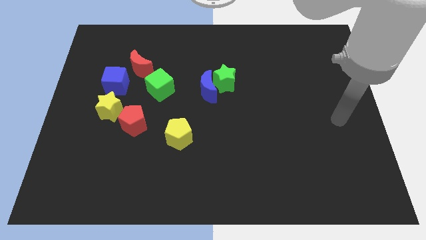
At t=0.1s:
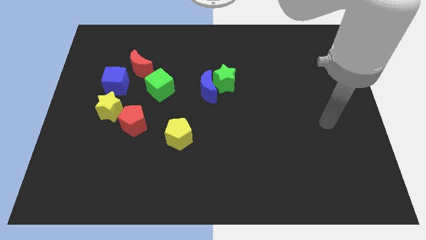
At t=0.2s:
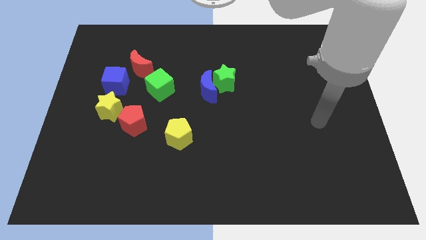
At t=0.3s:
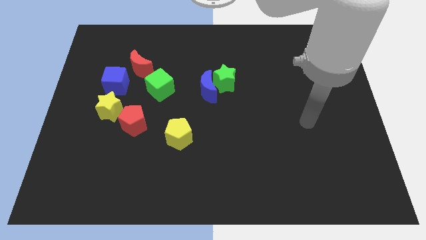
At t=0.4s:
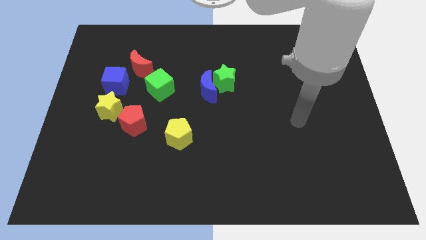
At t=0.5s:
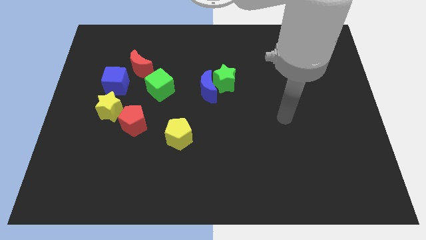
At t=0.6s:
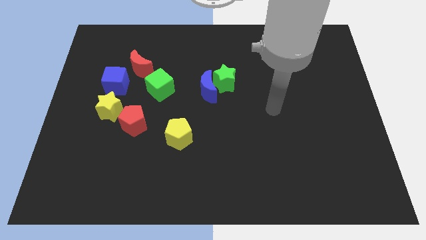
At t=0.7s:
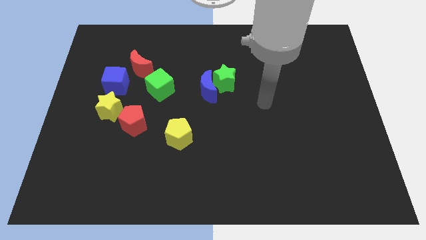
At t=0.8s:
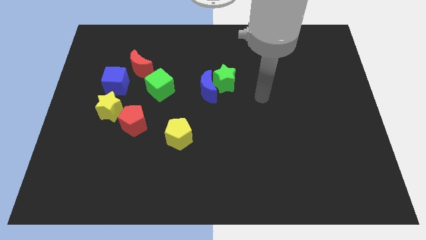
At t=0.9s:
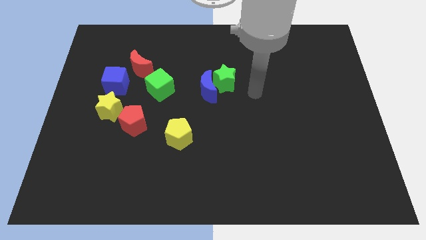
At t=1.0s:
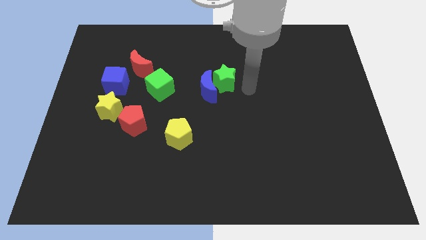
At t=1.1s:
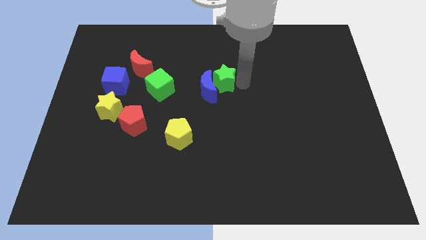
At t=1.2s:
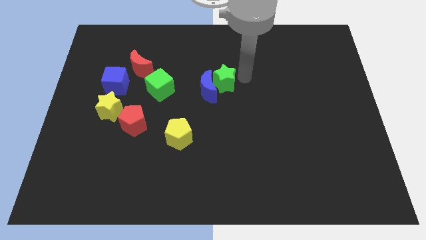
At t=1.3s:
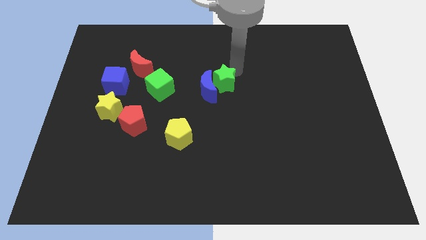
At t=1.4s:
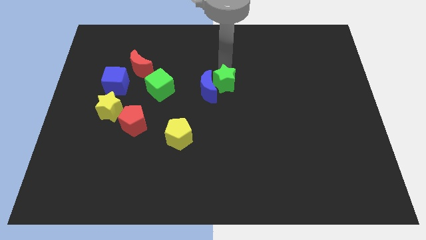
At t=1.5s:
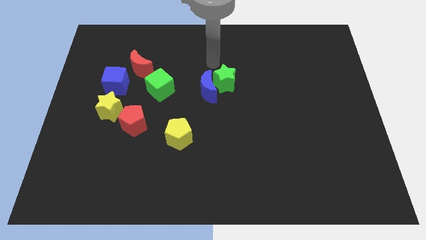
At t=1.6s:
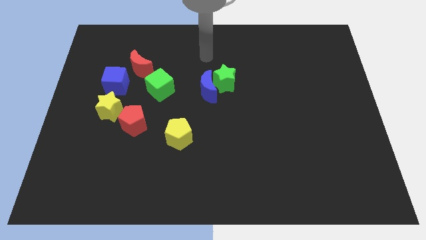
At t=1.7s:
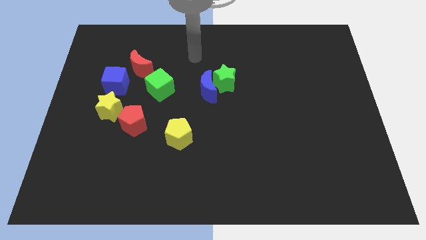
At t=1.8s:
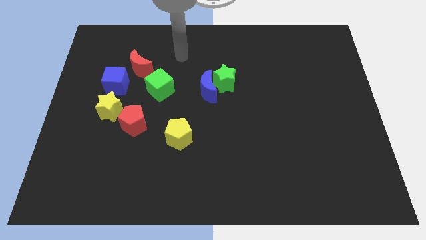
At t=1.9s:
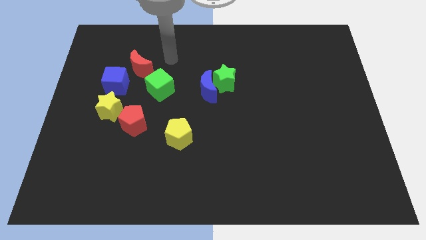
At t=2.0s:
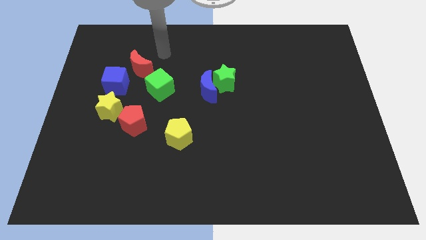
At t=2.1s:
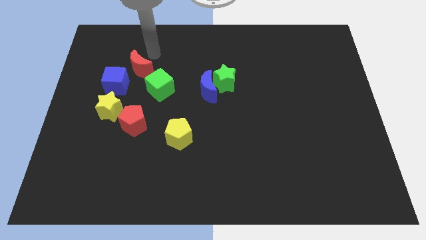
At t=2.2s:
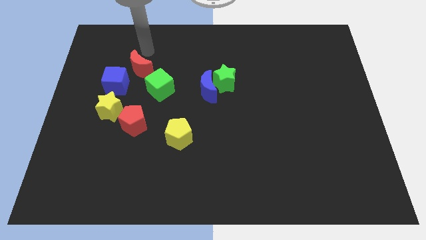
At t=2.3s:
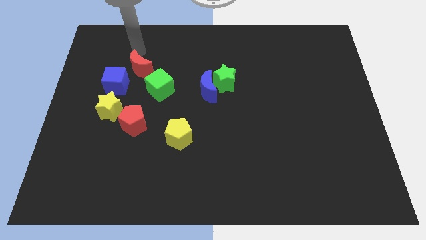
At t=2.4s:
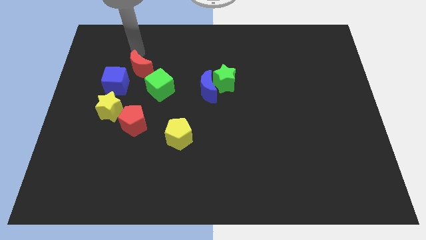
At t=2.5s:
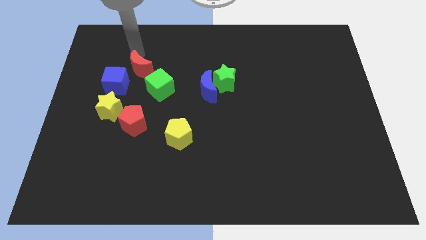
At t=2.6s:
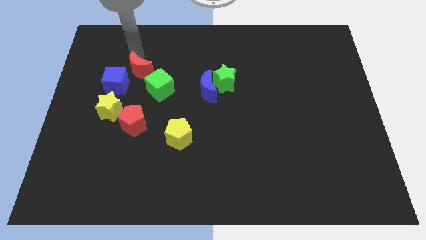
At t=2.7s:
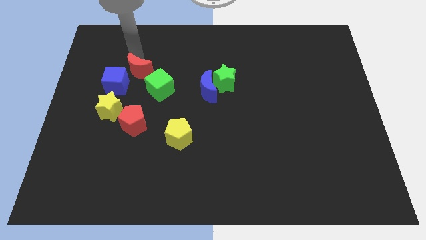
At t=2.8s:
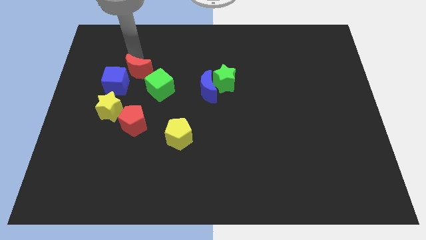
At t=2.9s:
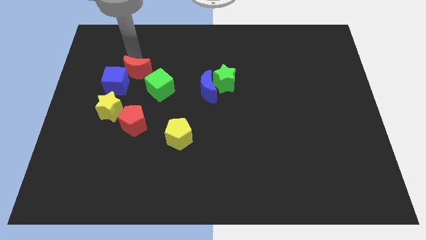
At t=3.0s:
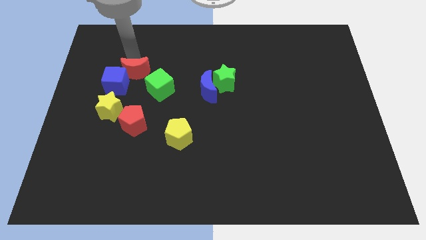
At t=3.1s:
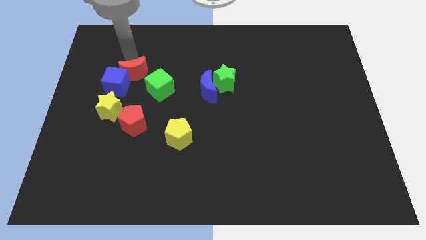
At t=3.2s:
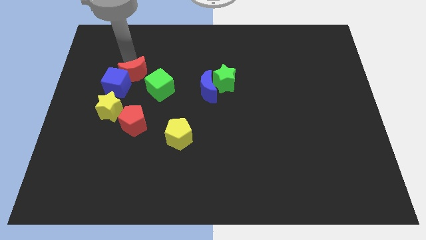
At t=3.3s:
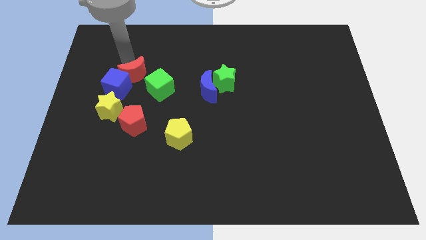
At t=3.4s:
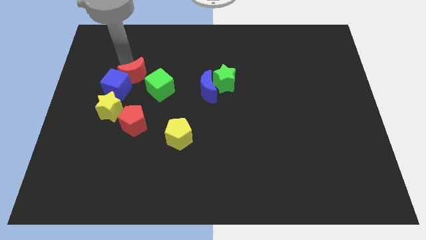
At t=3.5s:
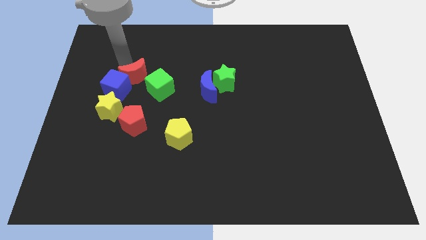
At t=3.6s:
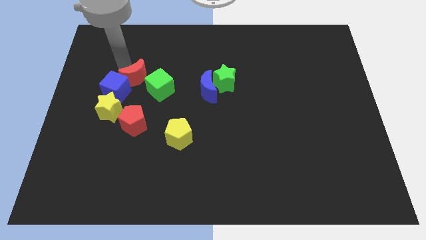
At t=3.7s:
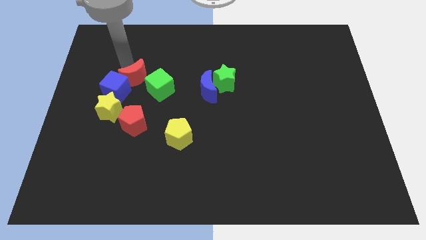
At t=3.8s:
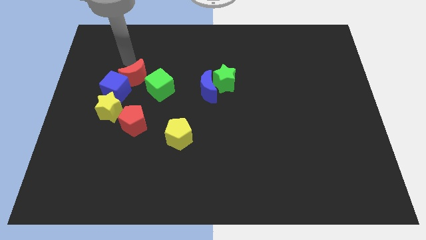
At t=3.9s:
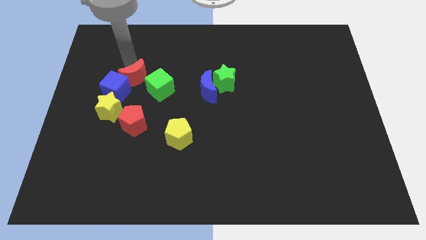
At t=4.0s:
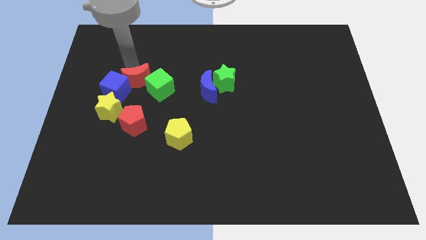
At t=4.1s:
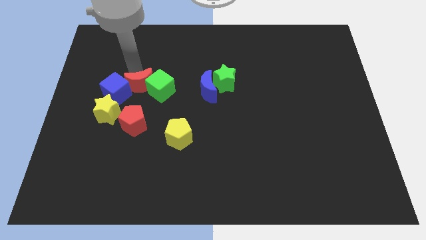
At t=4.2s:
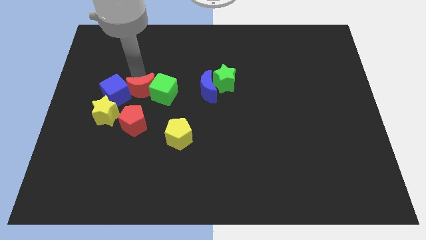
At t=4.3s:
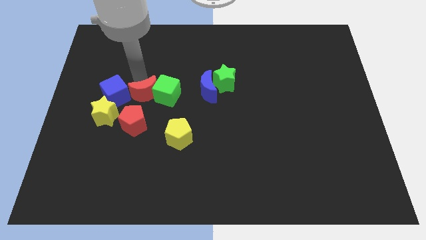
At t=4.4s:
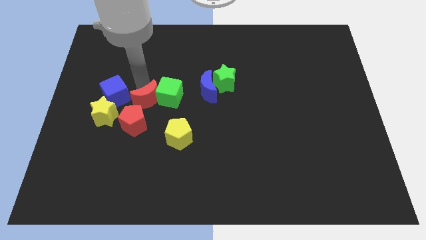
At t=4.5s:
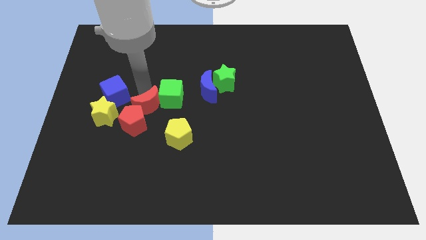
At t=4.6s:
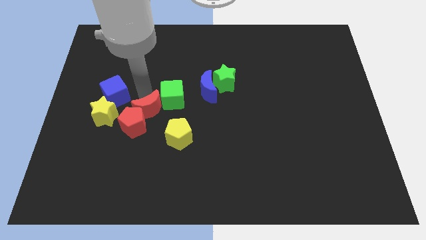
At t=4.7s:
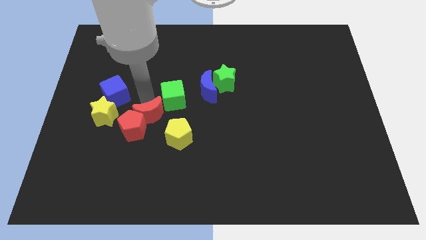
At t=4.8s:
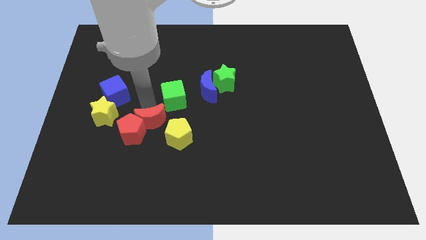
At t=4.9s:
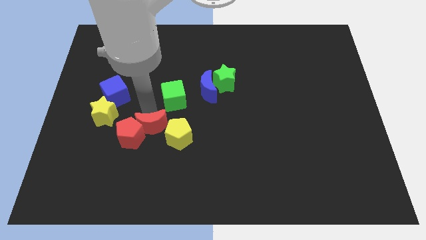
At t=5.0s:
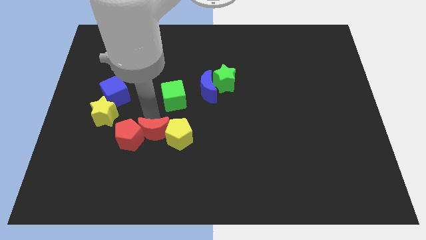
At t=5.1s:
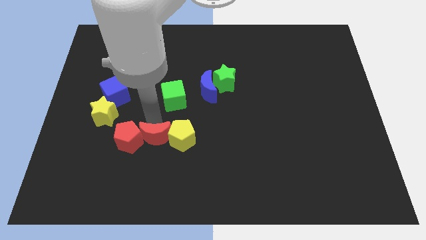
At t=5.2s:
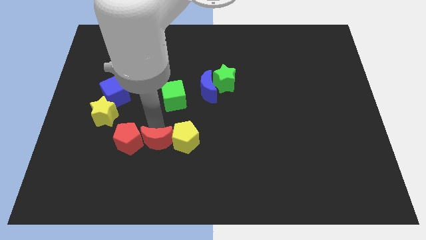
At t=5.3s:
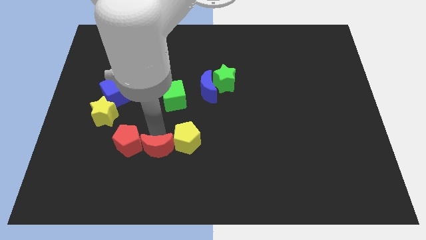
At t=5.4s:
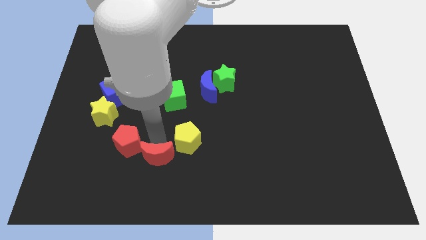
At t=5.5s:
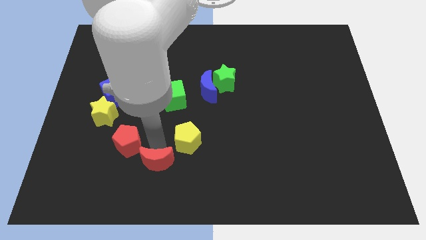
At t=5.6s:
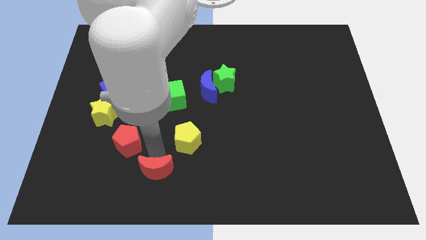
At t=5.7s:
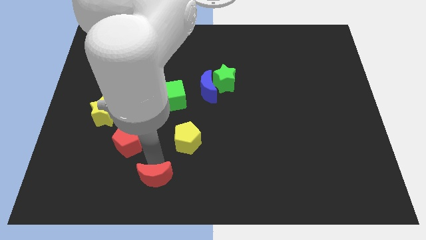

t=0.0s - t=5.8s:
put the red moon to the bottom side

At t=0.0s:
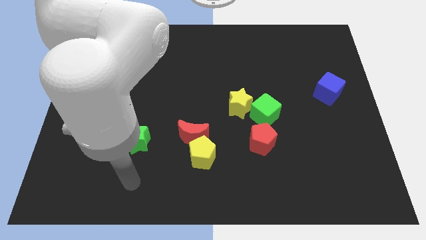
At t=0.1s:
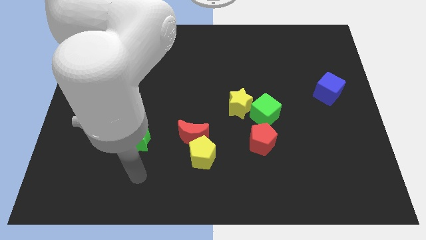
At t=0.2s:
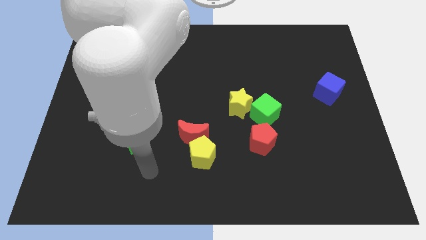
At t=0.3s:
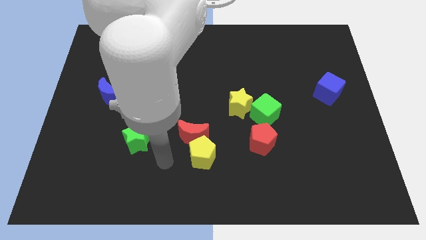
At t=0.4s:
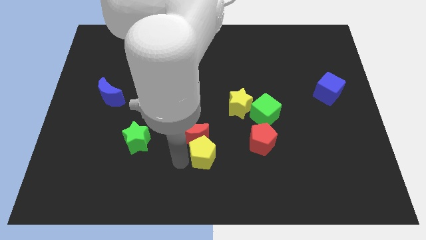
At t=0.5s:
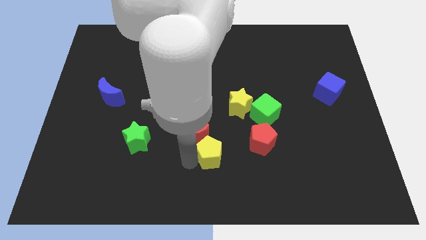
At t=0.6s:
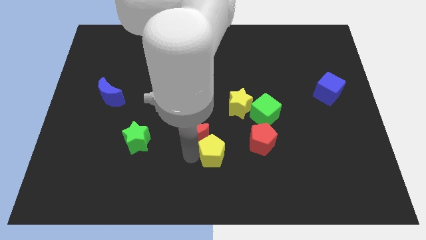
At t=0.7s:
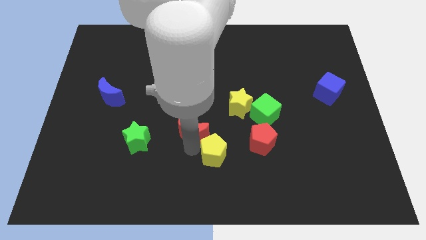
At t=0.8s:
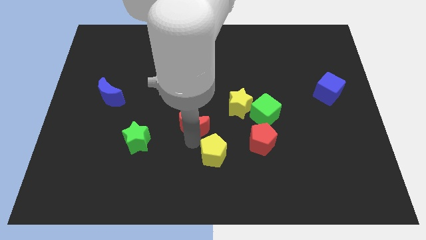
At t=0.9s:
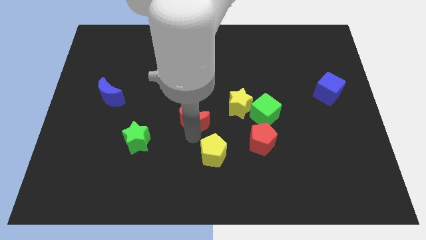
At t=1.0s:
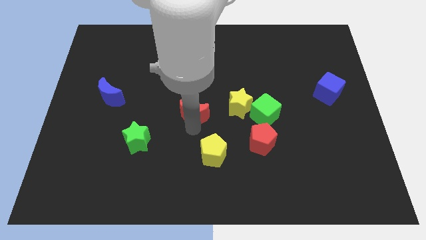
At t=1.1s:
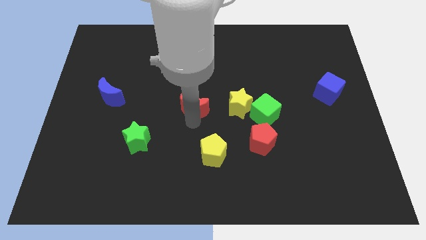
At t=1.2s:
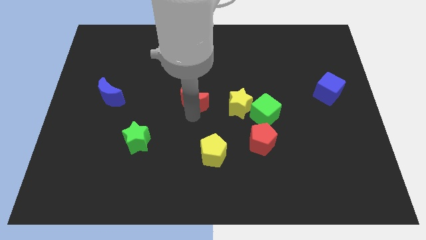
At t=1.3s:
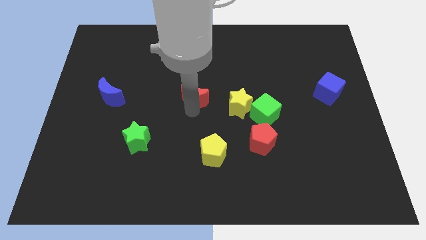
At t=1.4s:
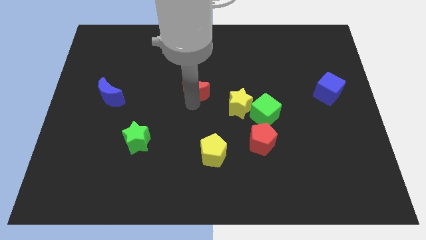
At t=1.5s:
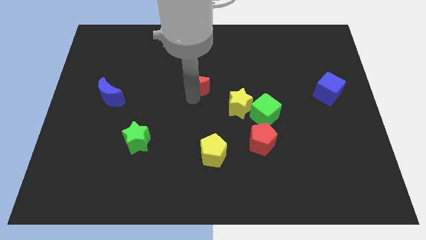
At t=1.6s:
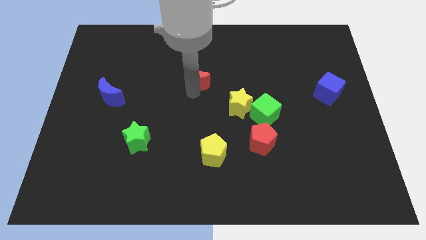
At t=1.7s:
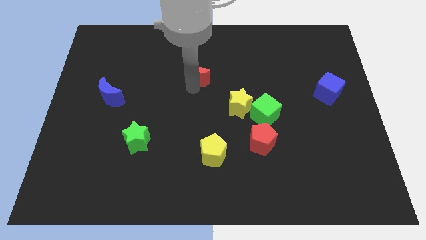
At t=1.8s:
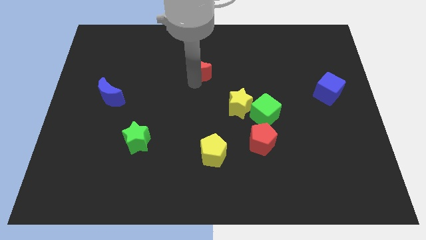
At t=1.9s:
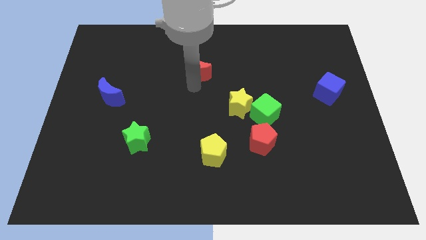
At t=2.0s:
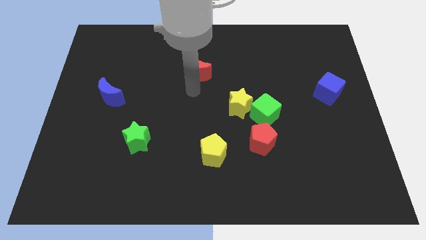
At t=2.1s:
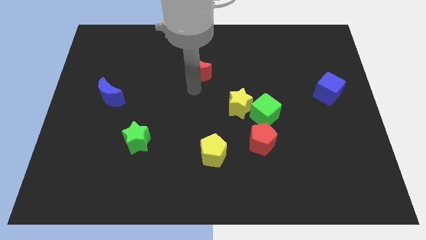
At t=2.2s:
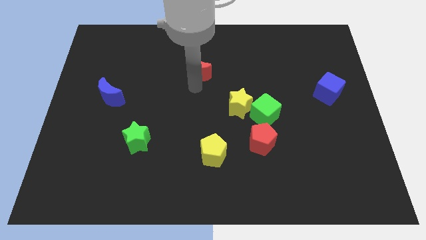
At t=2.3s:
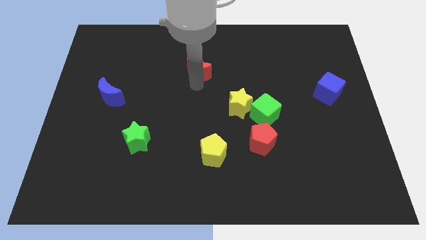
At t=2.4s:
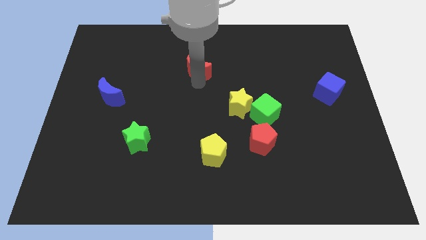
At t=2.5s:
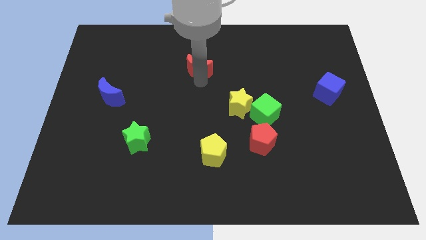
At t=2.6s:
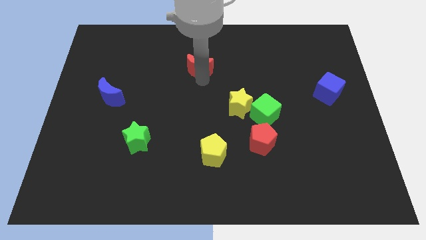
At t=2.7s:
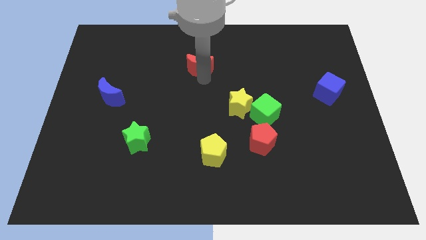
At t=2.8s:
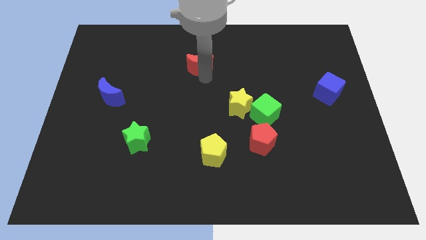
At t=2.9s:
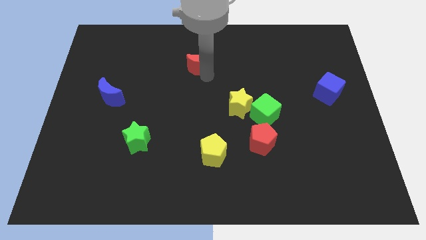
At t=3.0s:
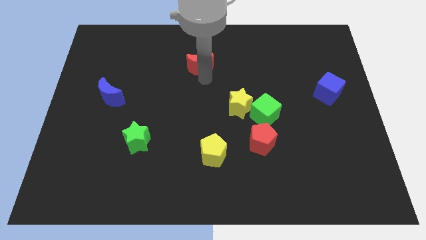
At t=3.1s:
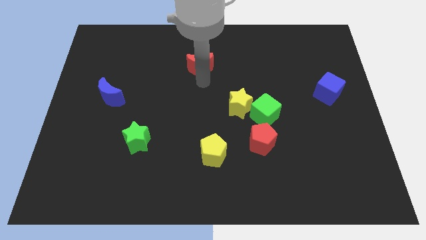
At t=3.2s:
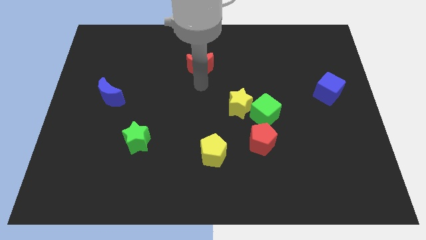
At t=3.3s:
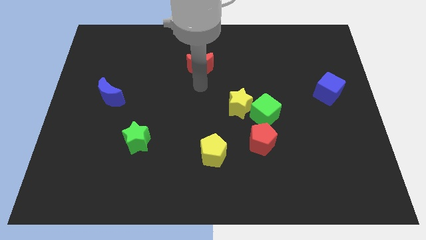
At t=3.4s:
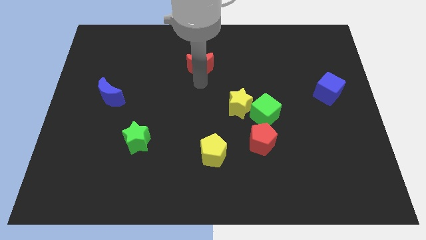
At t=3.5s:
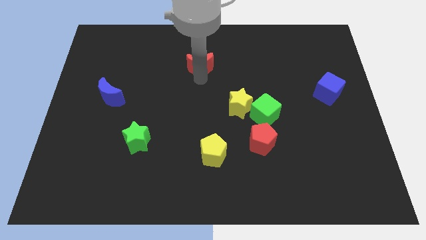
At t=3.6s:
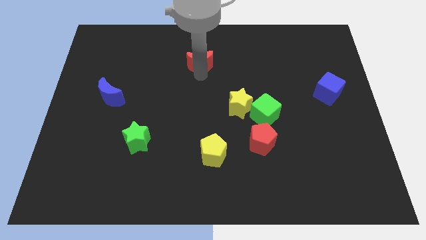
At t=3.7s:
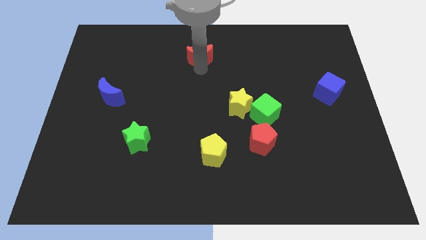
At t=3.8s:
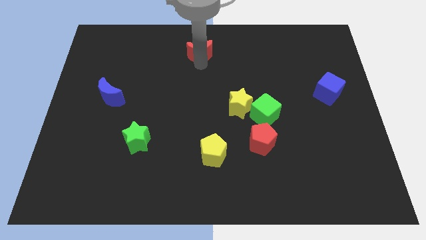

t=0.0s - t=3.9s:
move the red moon to the top side
